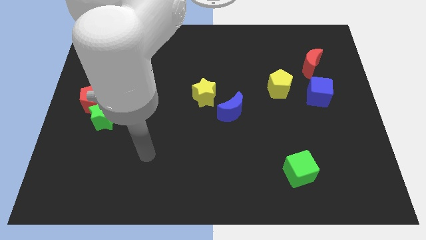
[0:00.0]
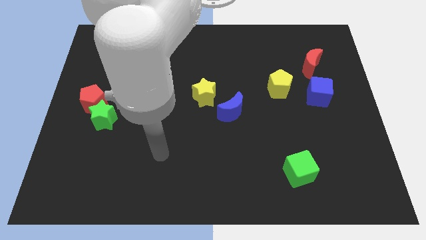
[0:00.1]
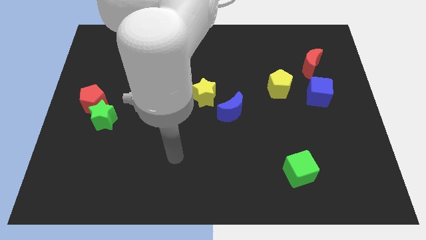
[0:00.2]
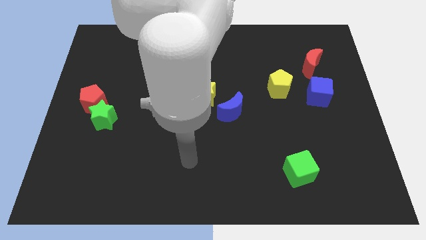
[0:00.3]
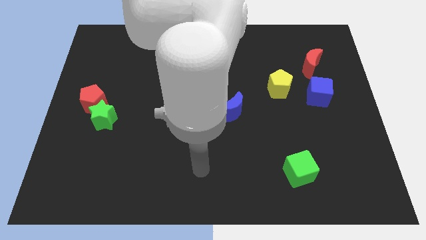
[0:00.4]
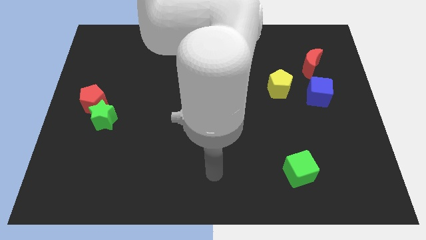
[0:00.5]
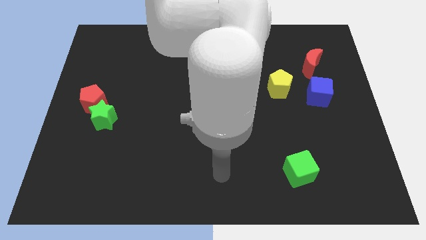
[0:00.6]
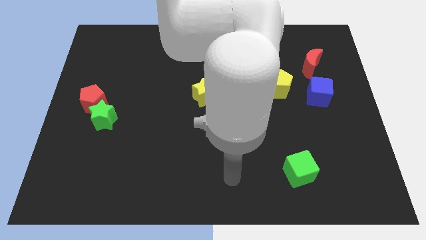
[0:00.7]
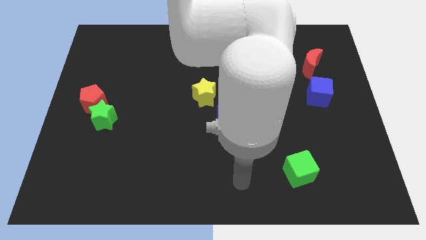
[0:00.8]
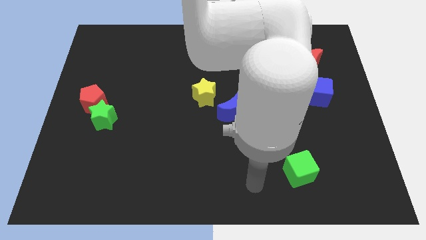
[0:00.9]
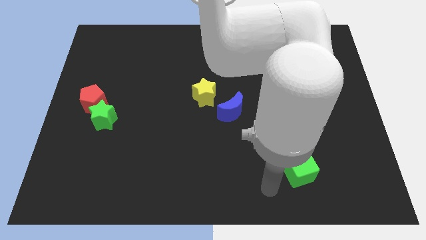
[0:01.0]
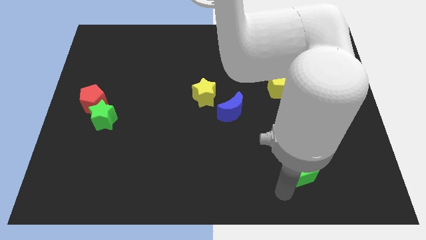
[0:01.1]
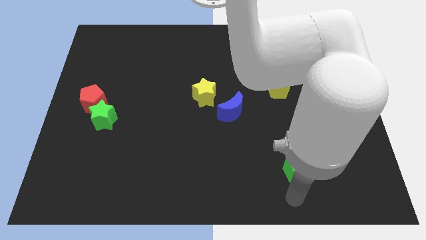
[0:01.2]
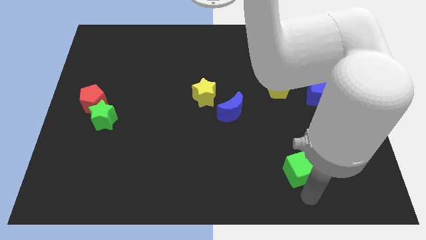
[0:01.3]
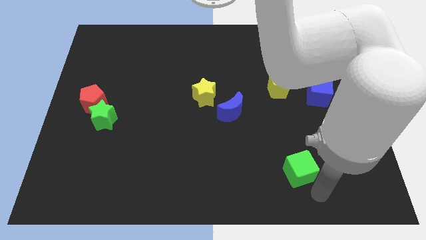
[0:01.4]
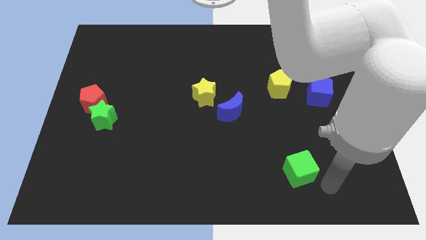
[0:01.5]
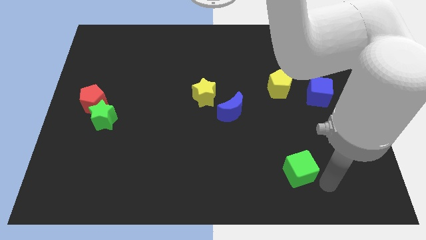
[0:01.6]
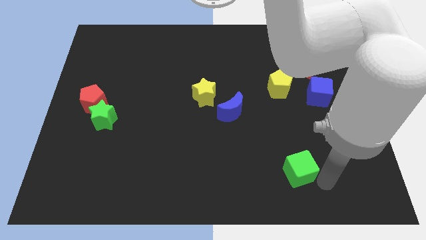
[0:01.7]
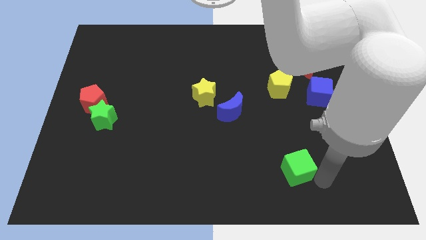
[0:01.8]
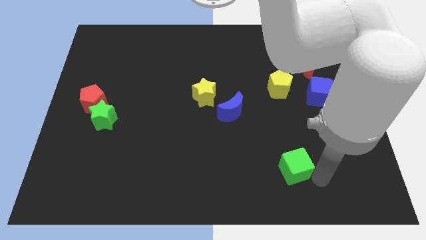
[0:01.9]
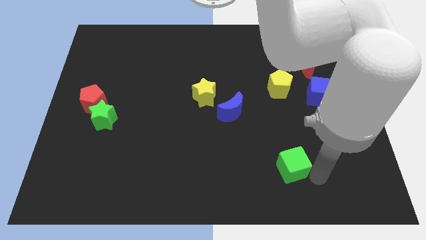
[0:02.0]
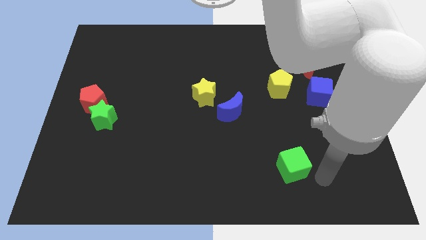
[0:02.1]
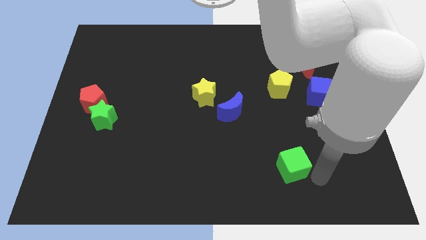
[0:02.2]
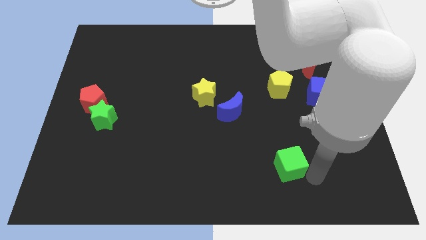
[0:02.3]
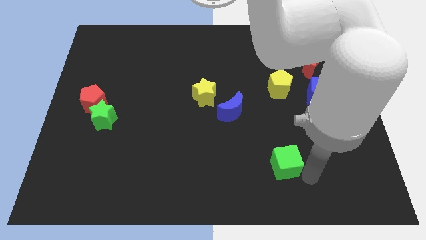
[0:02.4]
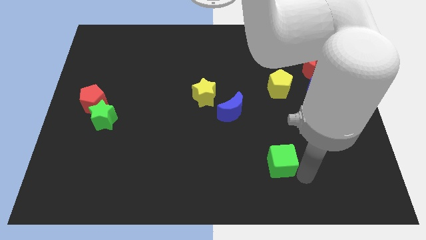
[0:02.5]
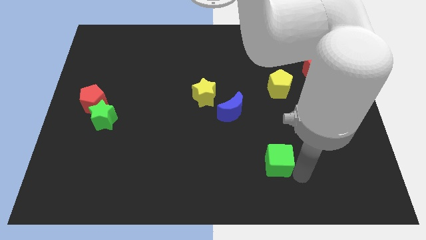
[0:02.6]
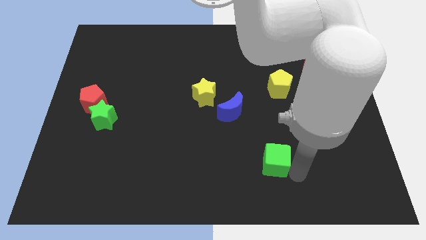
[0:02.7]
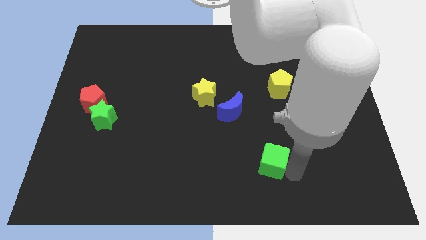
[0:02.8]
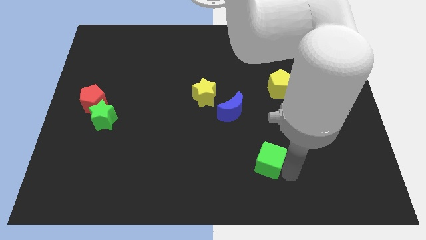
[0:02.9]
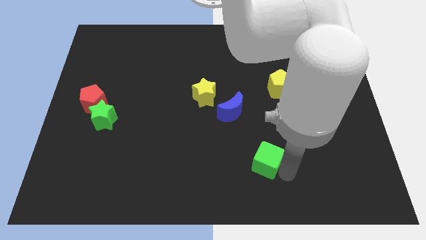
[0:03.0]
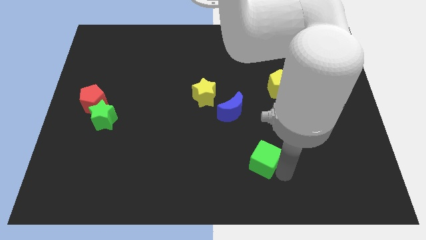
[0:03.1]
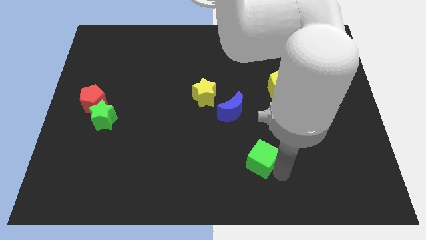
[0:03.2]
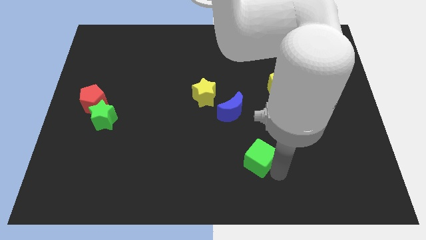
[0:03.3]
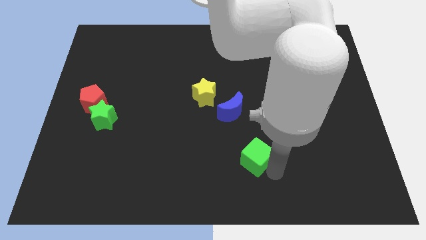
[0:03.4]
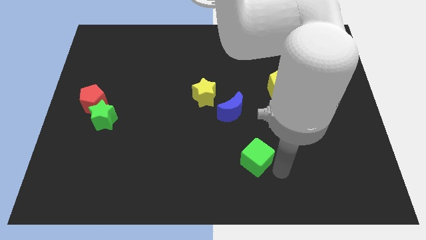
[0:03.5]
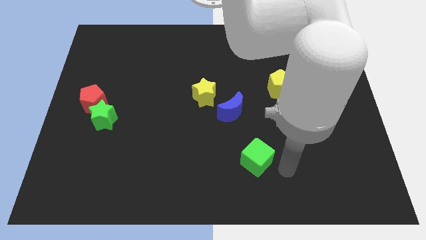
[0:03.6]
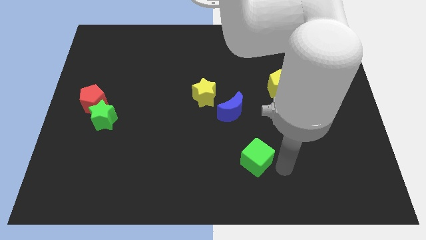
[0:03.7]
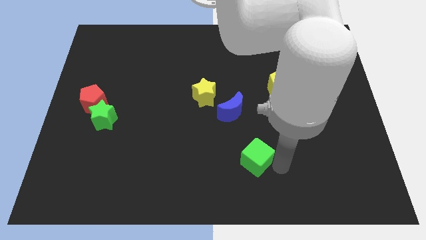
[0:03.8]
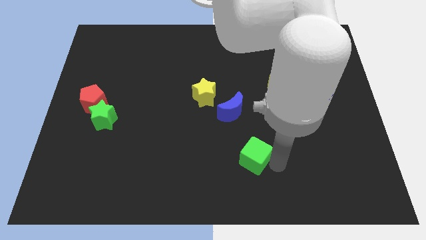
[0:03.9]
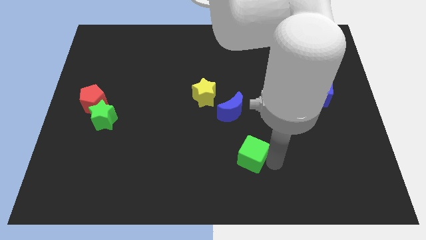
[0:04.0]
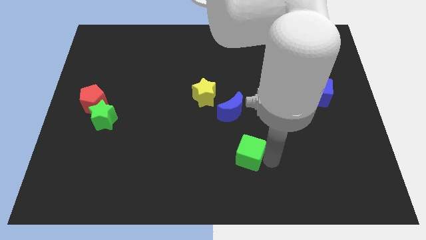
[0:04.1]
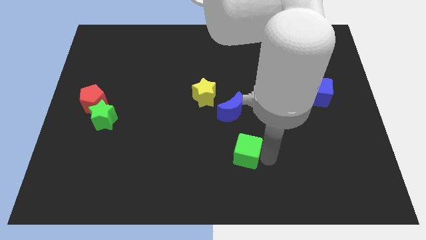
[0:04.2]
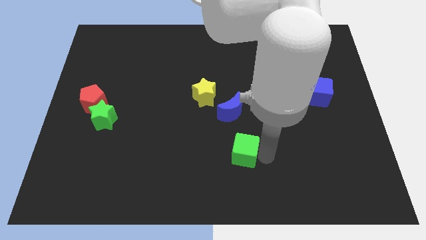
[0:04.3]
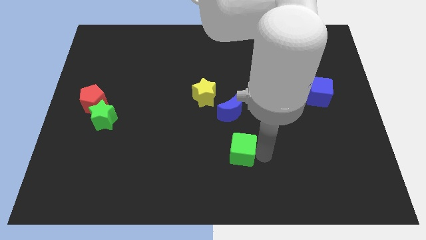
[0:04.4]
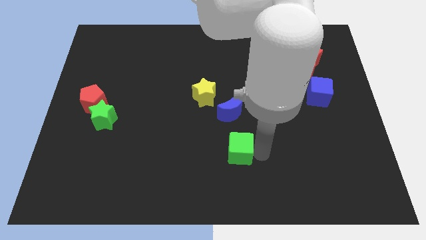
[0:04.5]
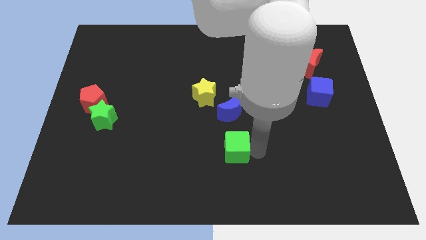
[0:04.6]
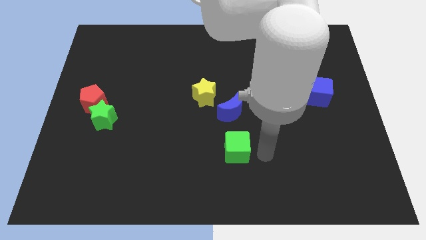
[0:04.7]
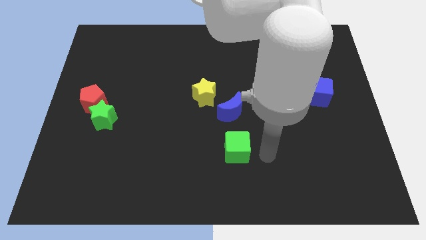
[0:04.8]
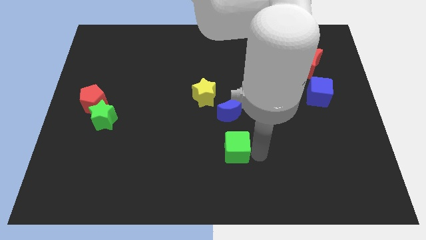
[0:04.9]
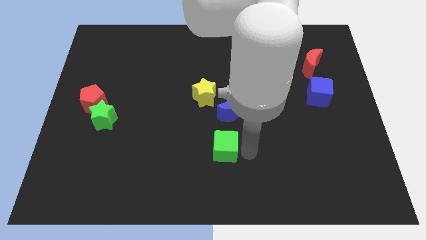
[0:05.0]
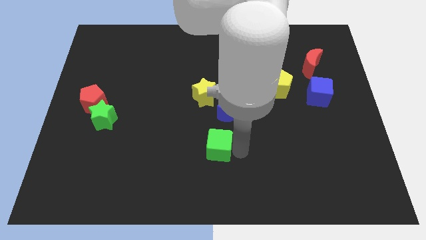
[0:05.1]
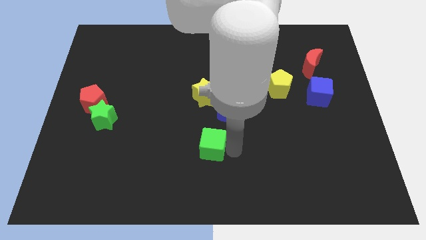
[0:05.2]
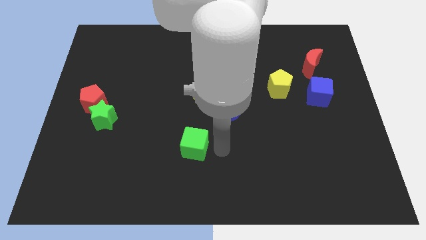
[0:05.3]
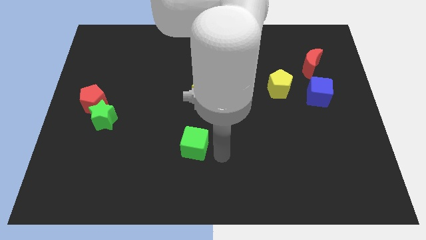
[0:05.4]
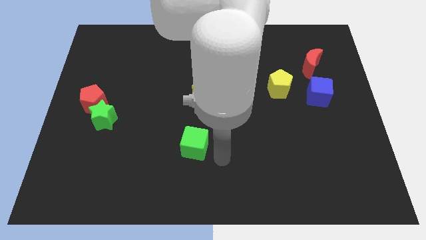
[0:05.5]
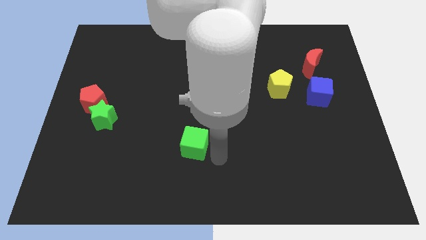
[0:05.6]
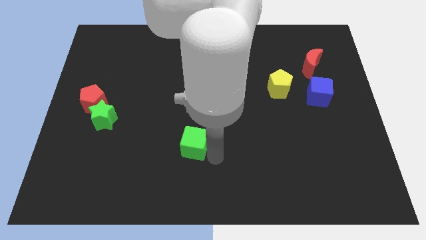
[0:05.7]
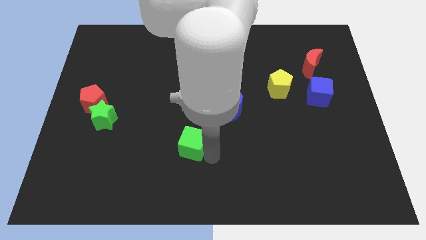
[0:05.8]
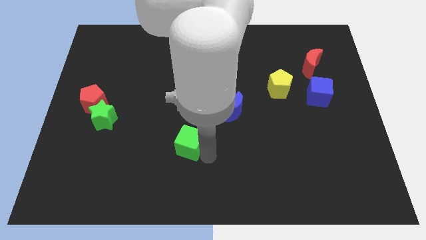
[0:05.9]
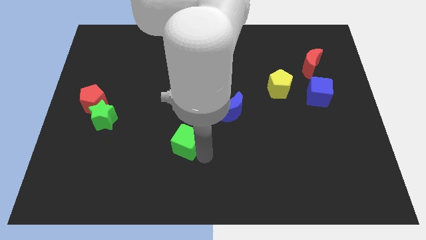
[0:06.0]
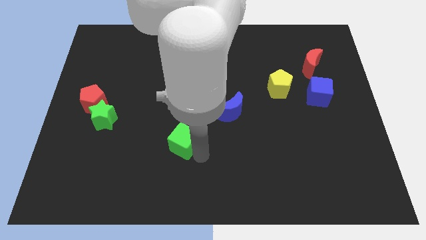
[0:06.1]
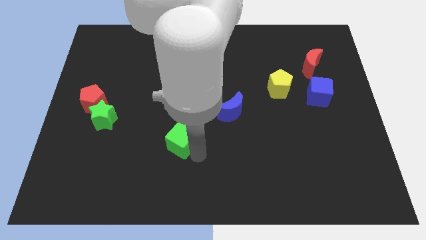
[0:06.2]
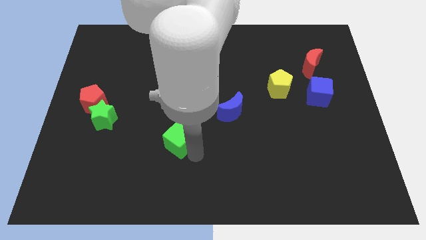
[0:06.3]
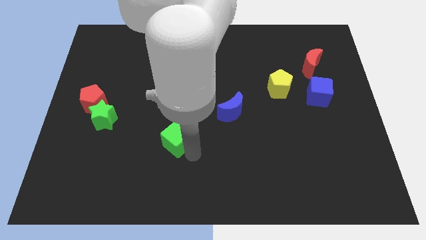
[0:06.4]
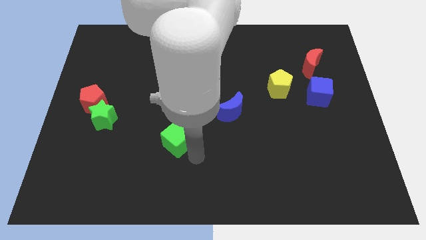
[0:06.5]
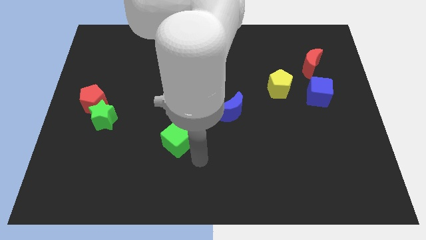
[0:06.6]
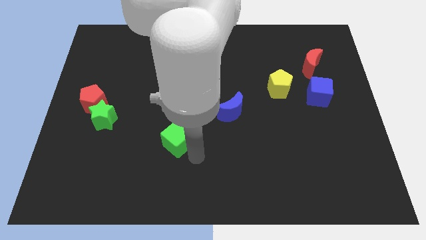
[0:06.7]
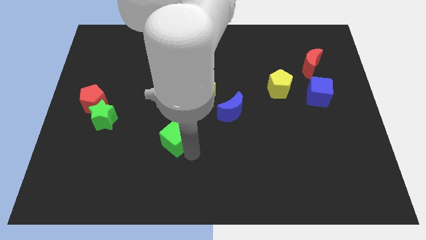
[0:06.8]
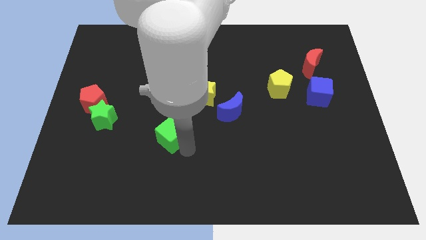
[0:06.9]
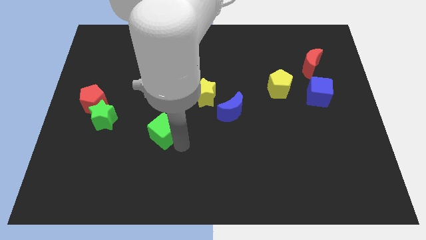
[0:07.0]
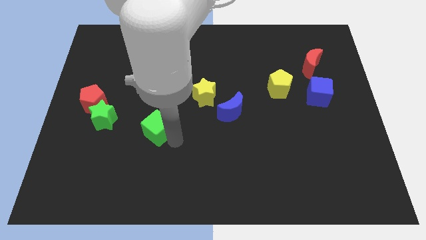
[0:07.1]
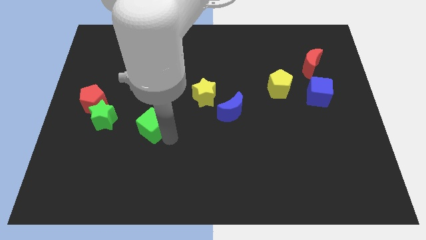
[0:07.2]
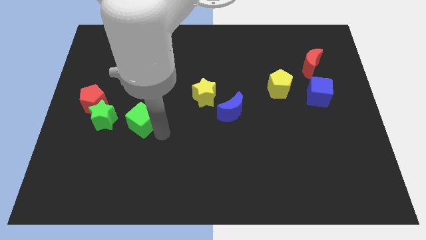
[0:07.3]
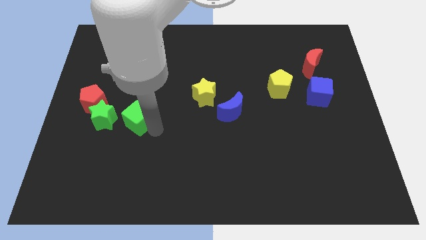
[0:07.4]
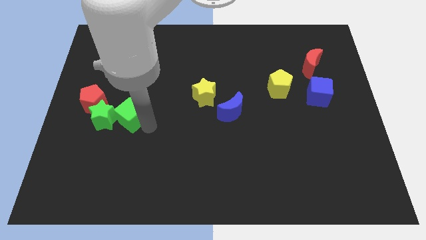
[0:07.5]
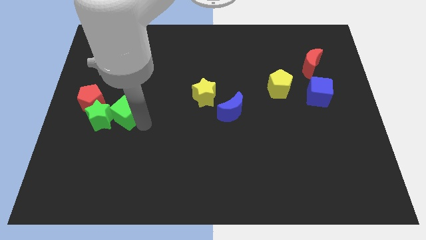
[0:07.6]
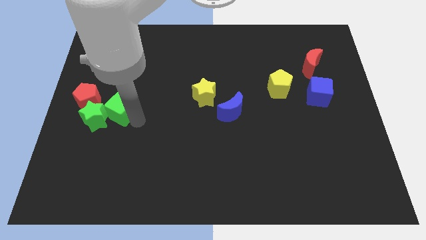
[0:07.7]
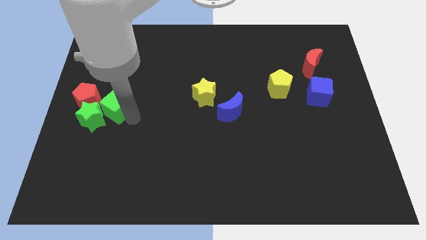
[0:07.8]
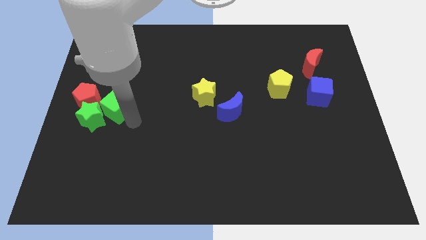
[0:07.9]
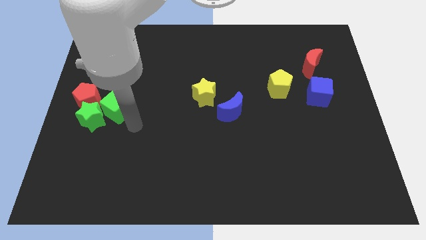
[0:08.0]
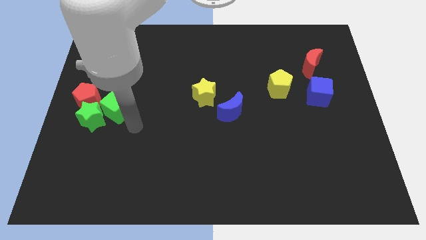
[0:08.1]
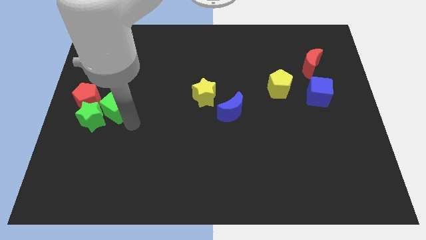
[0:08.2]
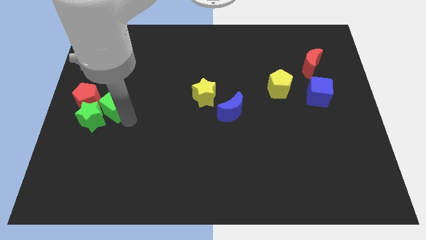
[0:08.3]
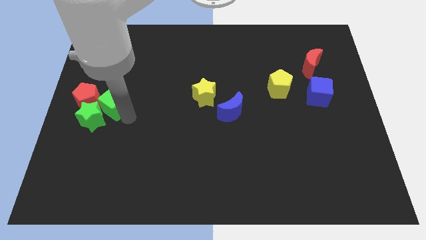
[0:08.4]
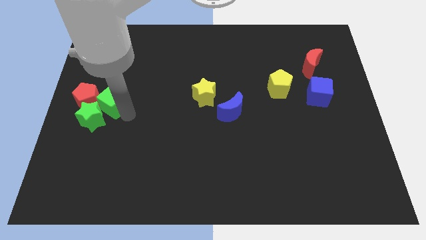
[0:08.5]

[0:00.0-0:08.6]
put the green cube close to the red pentagon
